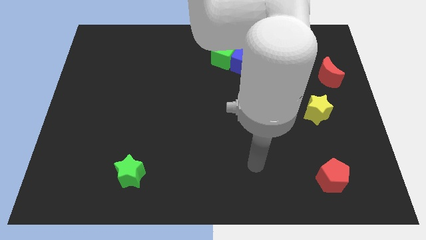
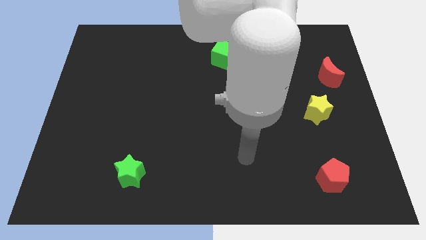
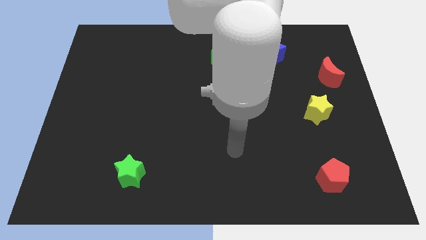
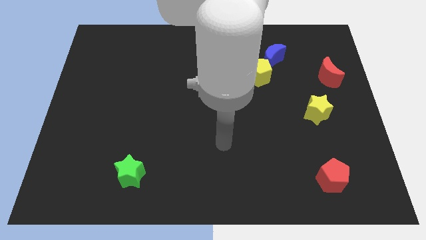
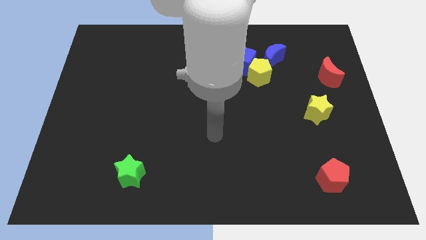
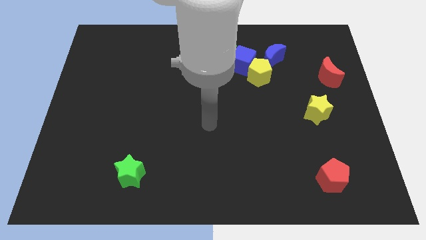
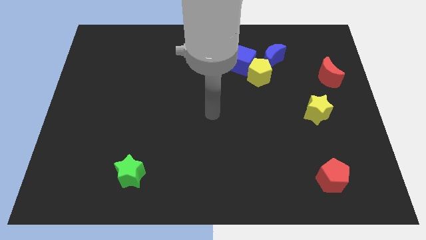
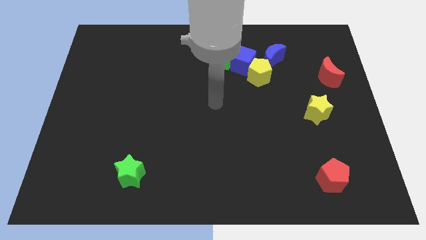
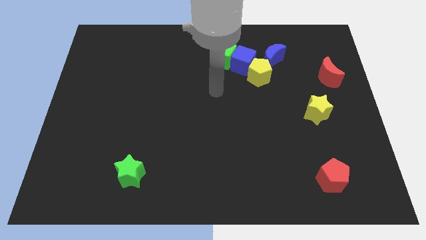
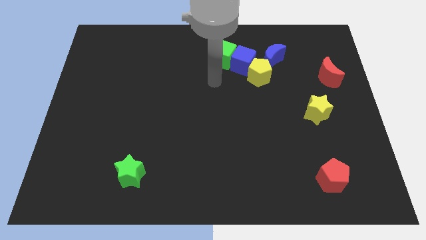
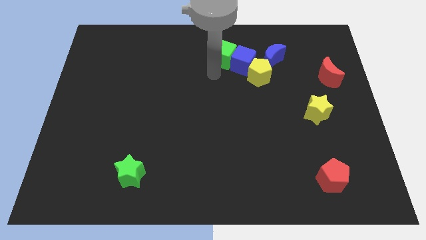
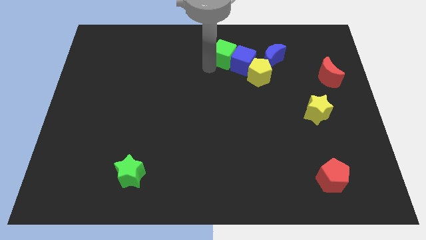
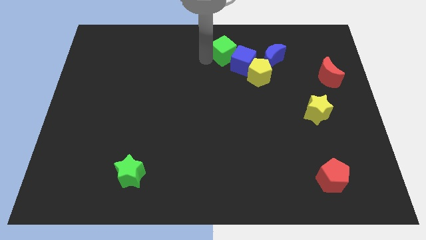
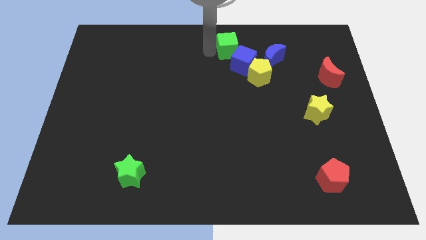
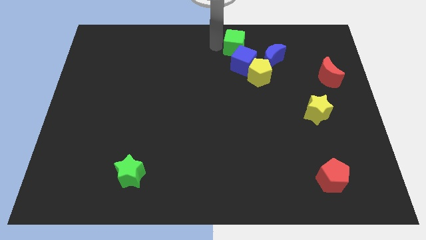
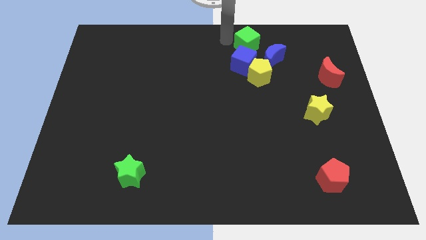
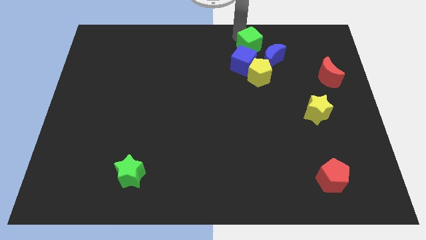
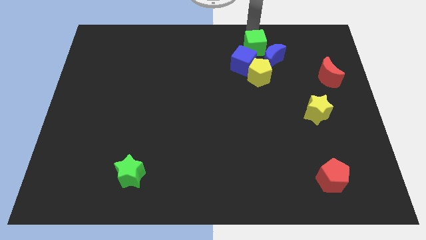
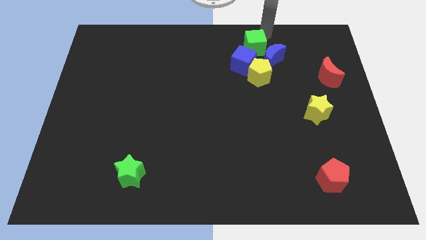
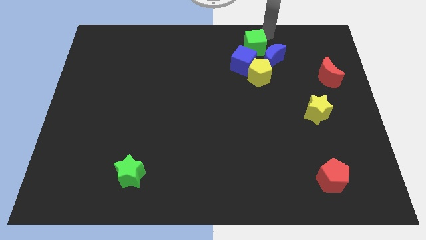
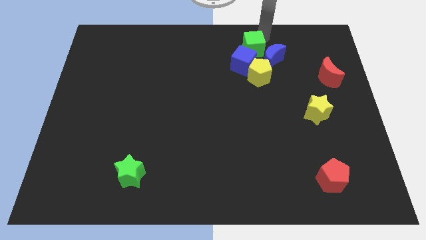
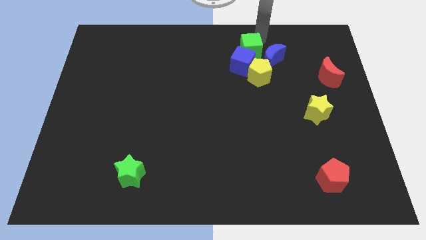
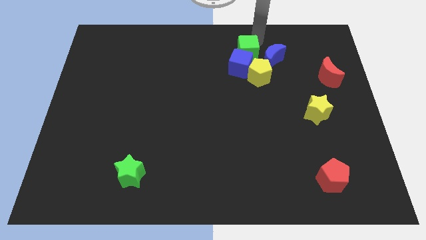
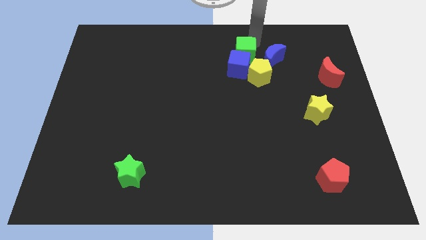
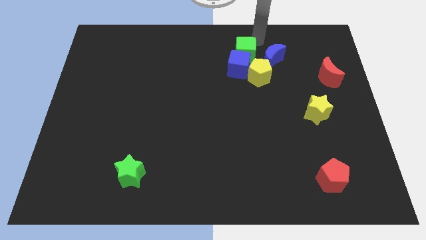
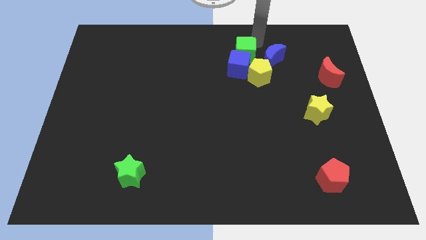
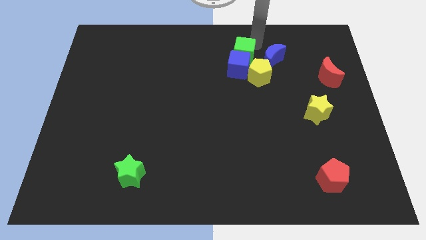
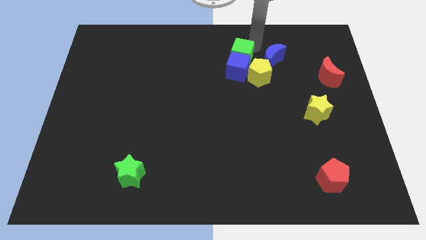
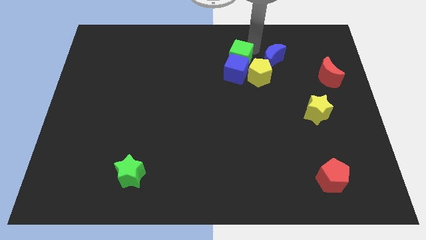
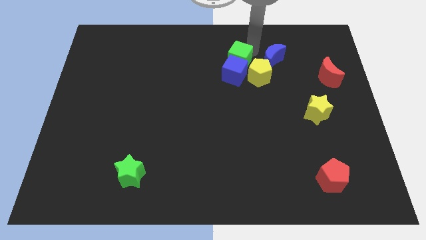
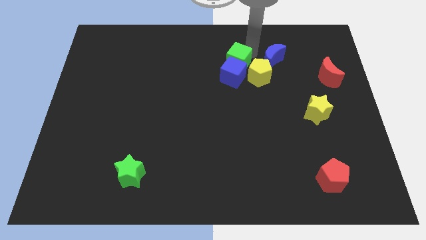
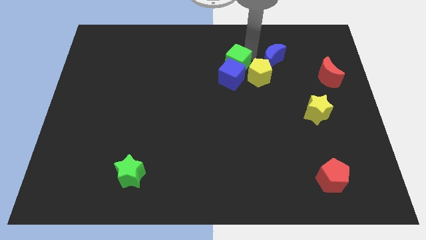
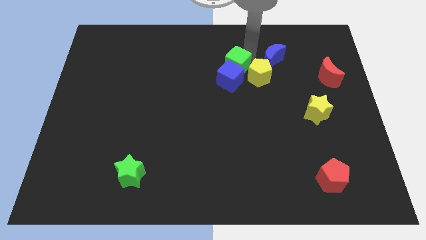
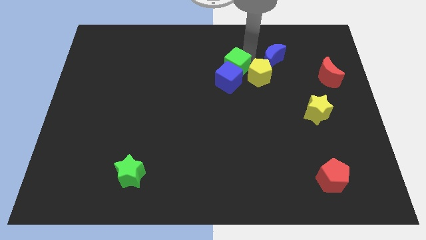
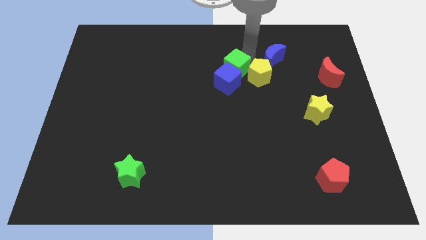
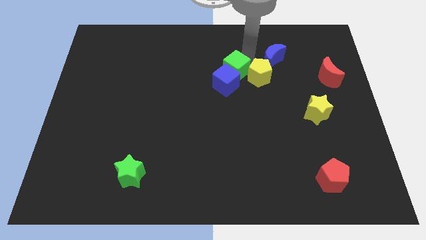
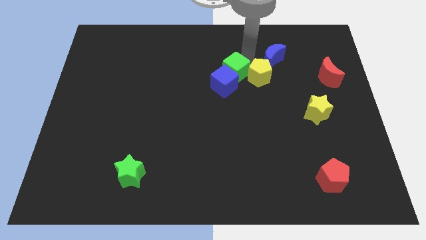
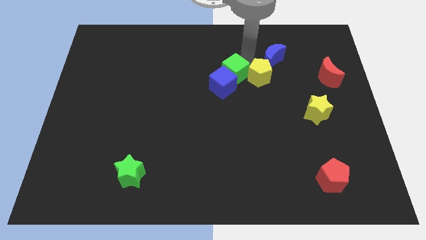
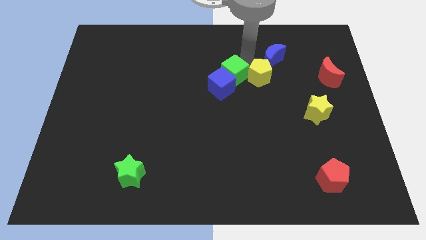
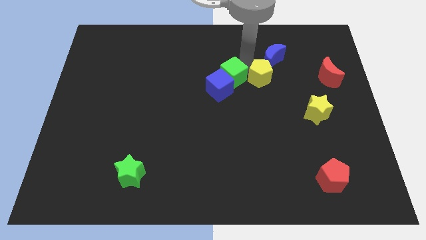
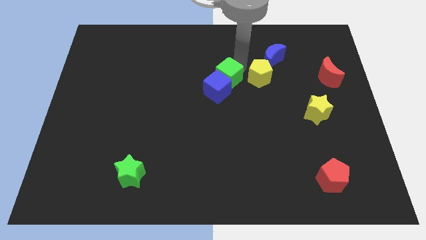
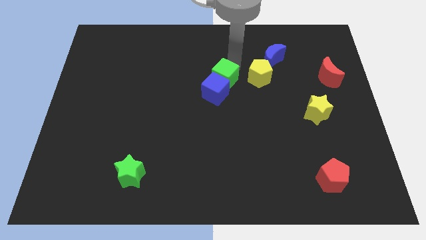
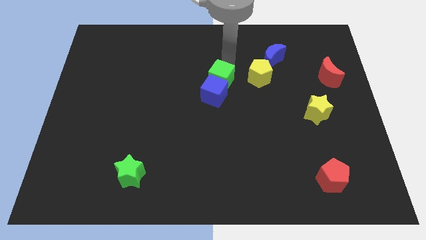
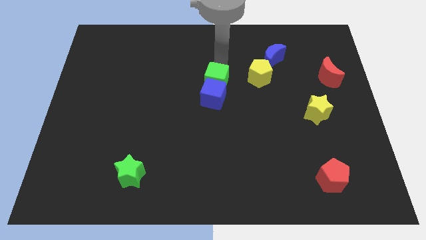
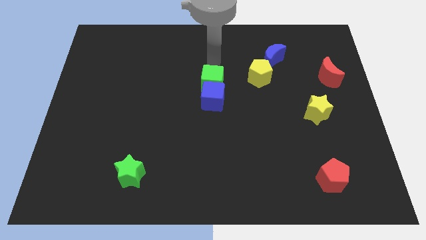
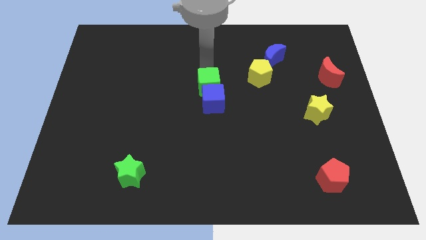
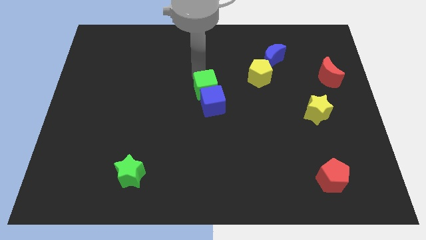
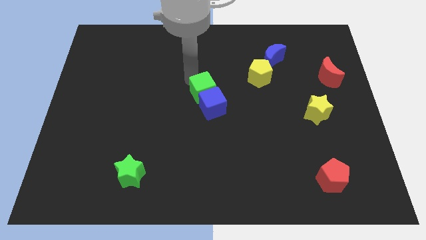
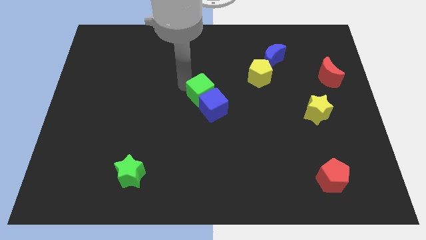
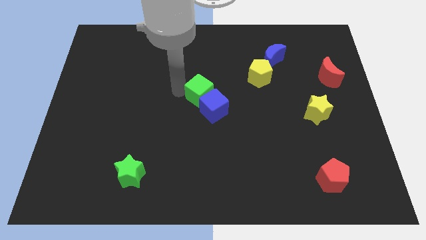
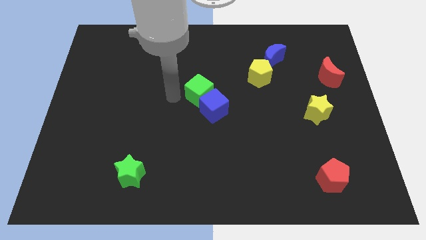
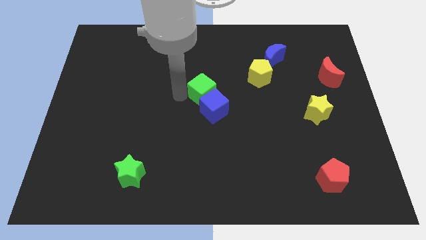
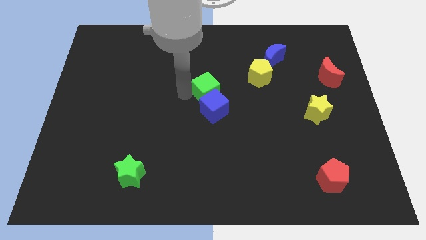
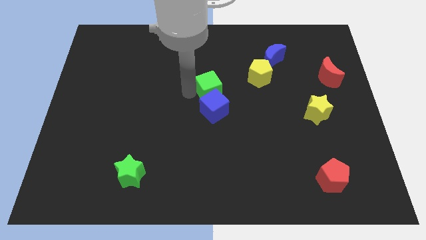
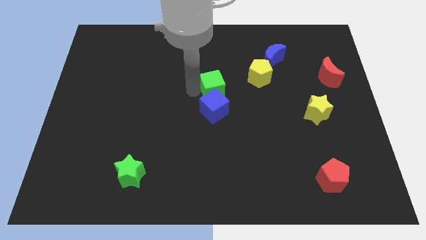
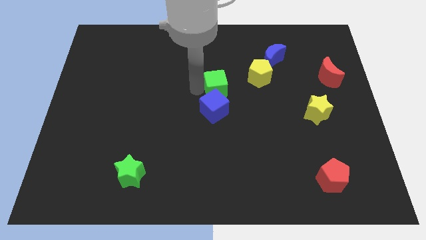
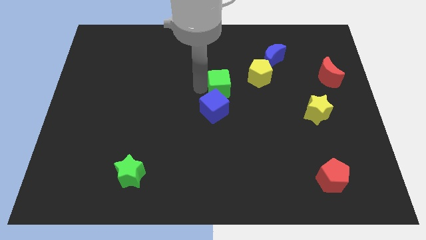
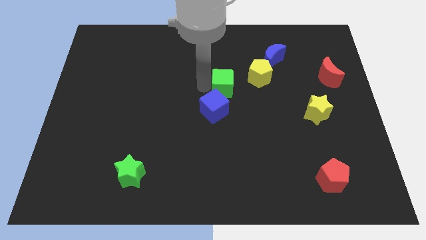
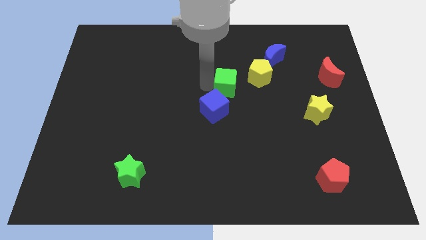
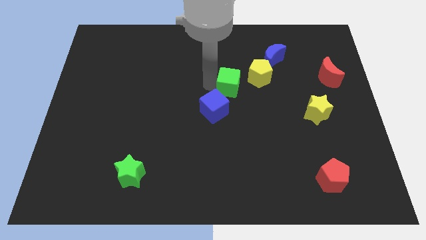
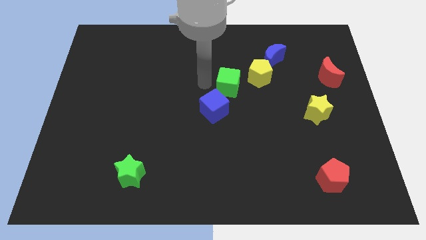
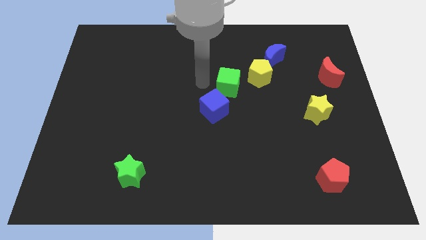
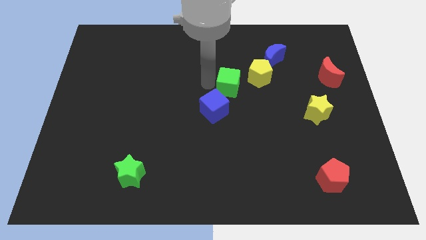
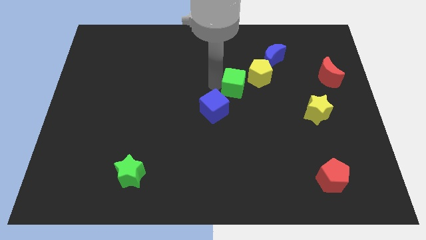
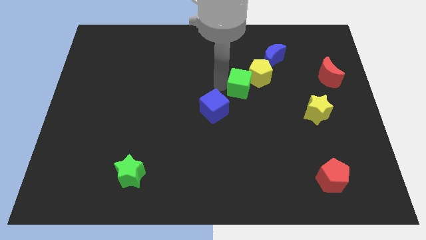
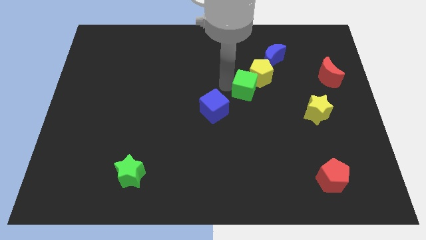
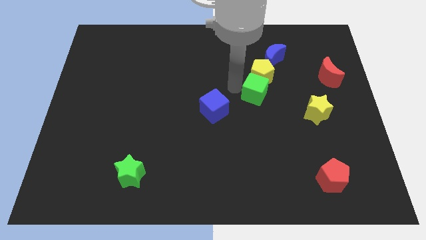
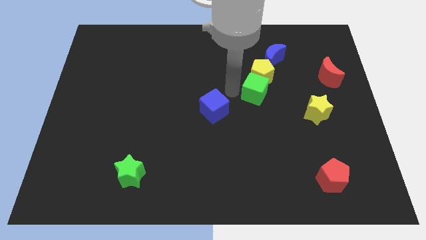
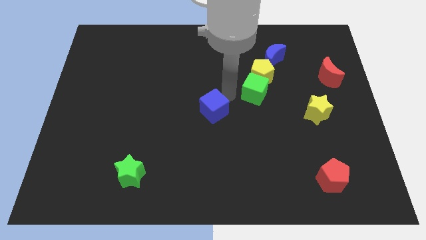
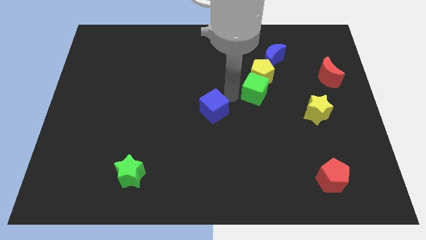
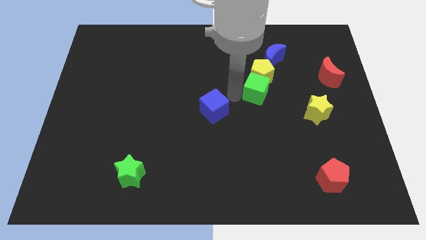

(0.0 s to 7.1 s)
put the green cube to the bottom side of the blue moon
